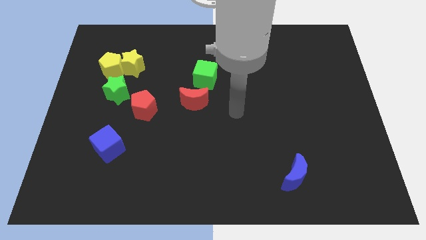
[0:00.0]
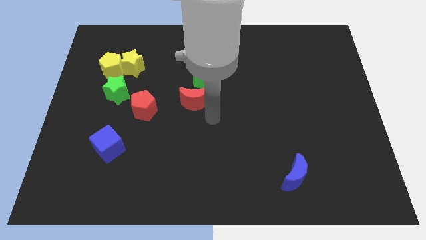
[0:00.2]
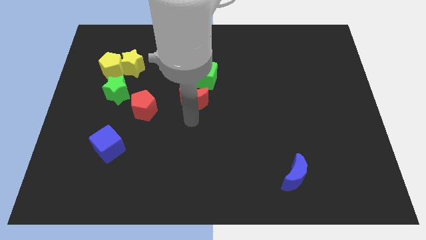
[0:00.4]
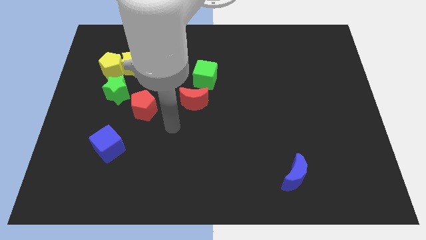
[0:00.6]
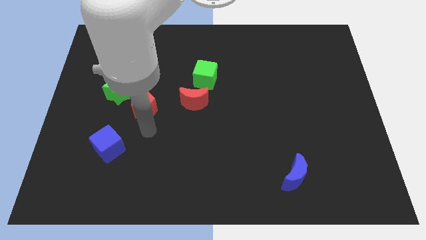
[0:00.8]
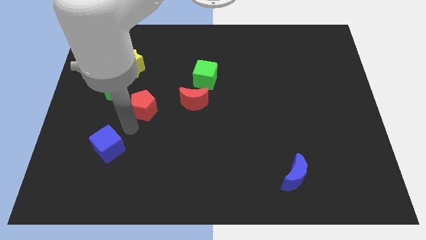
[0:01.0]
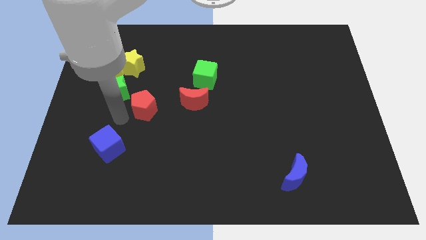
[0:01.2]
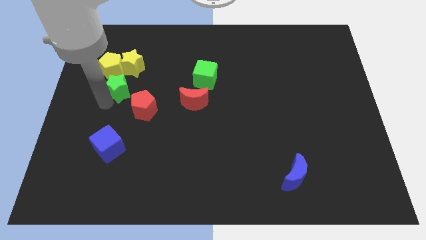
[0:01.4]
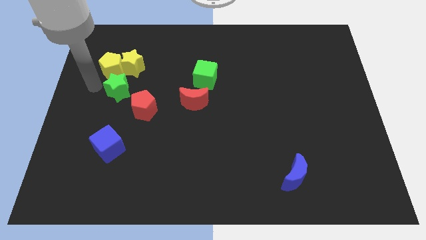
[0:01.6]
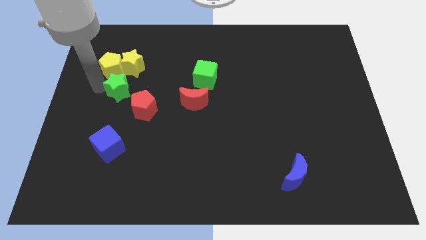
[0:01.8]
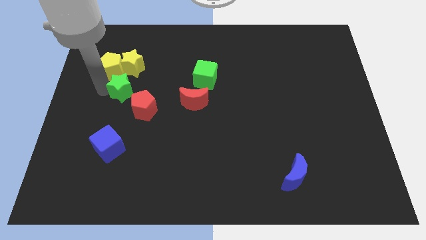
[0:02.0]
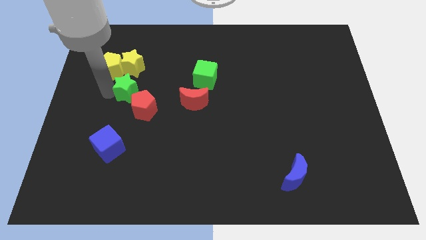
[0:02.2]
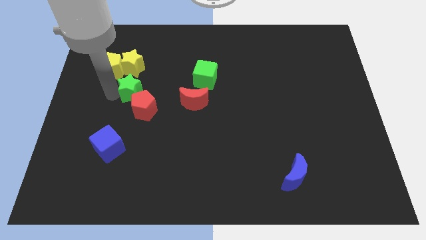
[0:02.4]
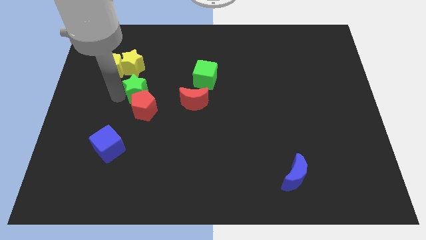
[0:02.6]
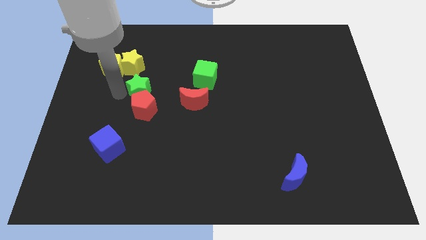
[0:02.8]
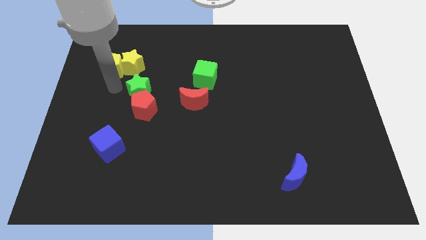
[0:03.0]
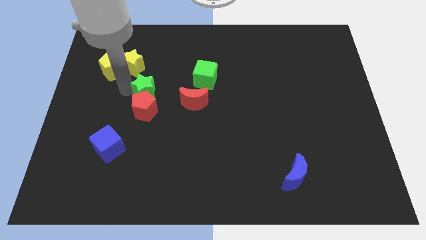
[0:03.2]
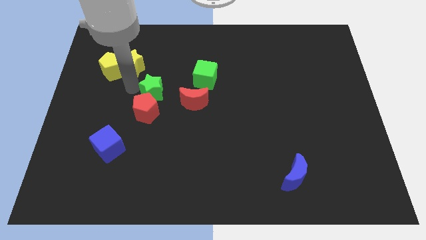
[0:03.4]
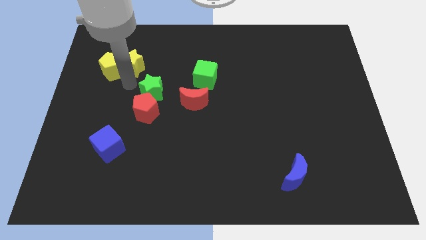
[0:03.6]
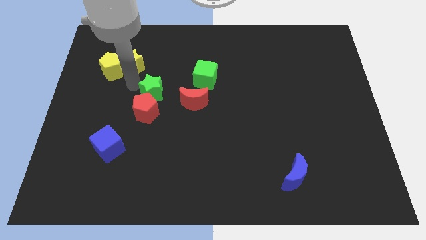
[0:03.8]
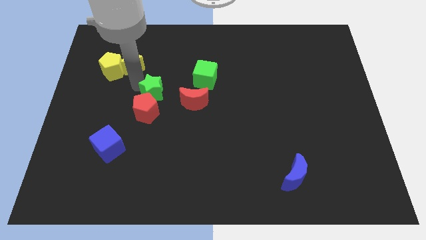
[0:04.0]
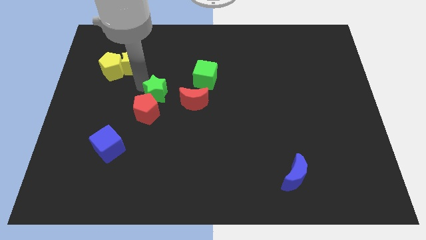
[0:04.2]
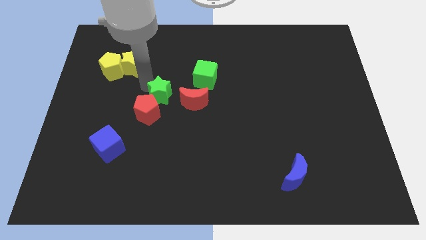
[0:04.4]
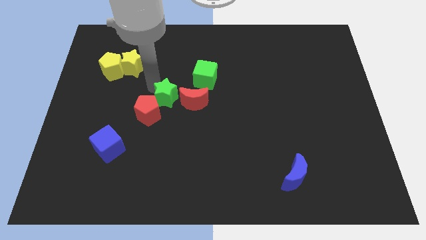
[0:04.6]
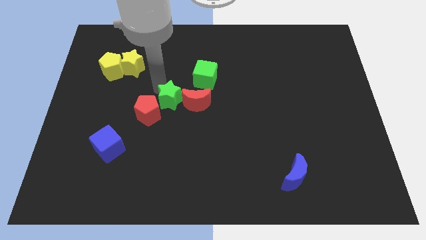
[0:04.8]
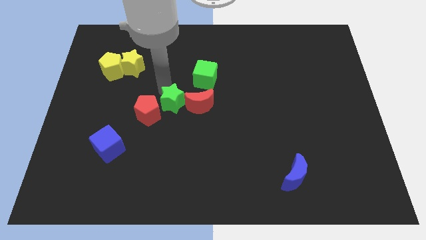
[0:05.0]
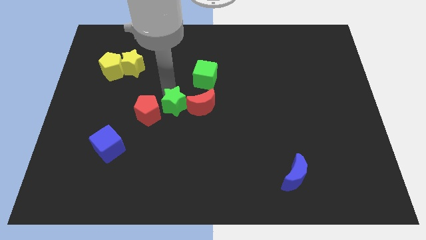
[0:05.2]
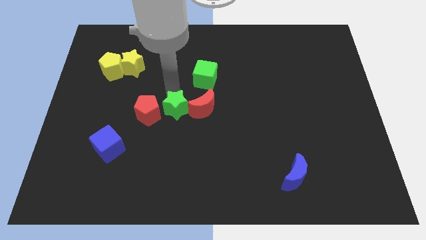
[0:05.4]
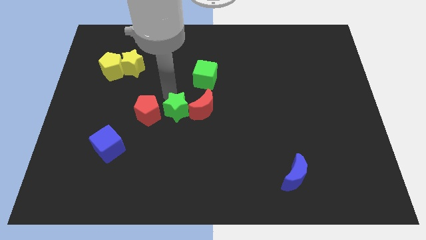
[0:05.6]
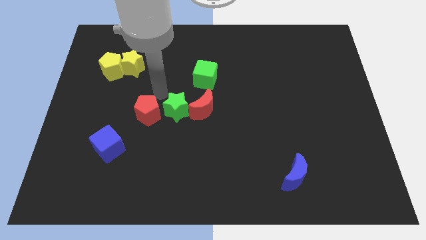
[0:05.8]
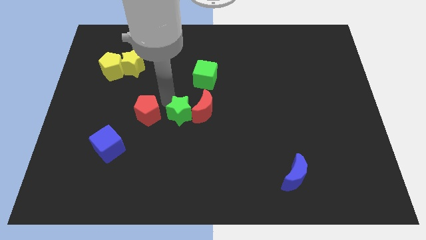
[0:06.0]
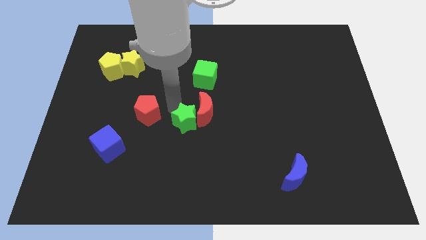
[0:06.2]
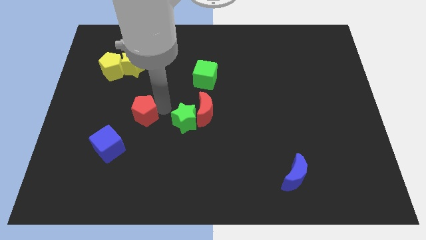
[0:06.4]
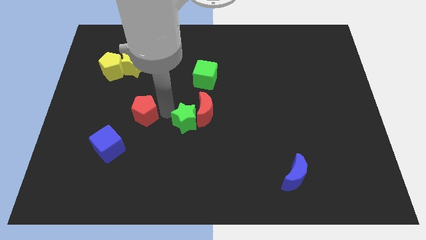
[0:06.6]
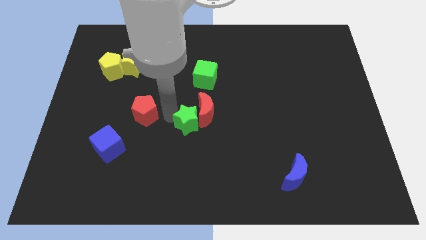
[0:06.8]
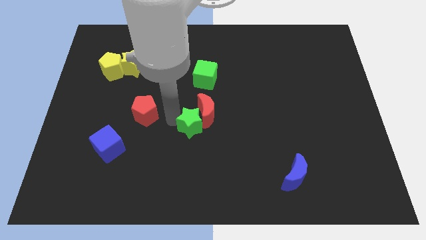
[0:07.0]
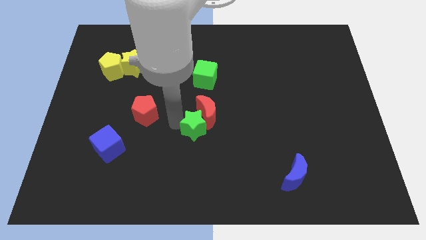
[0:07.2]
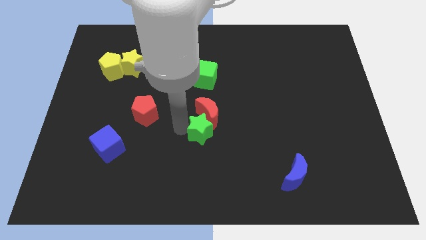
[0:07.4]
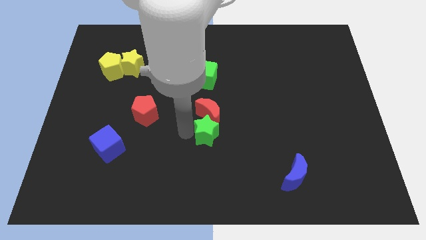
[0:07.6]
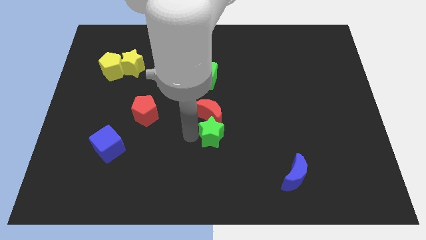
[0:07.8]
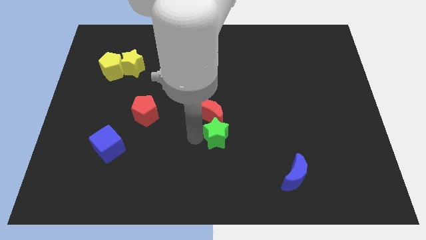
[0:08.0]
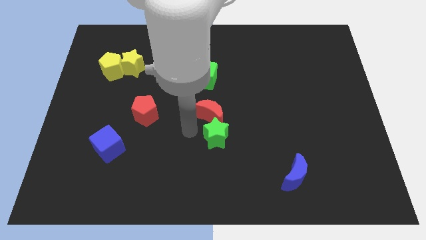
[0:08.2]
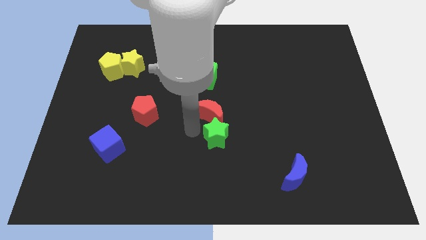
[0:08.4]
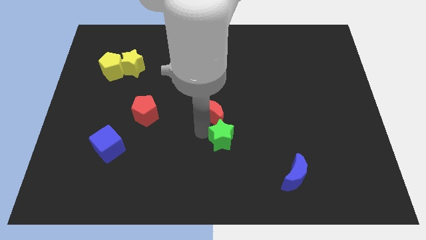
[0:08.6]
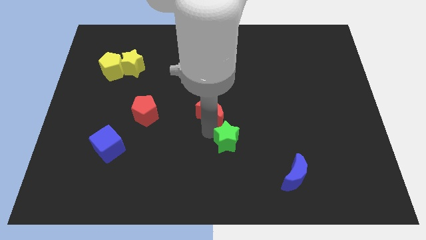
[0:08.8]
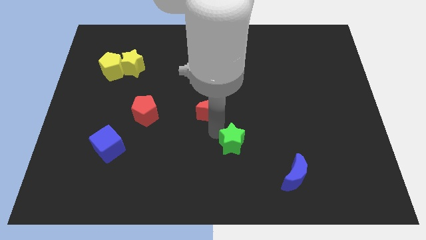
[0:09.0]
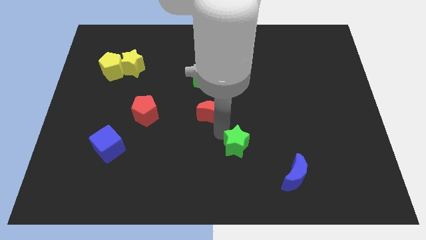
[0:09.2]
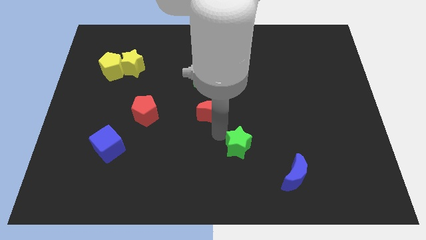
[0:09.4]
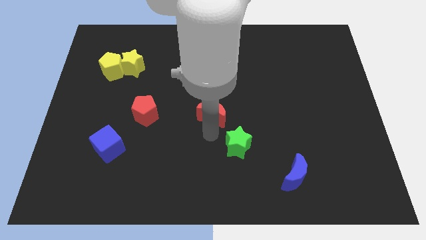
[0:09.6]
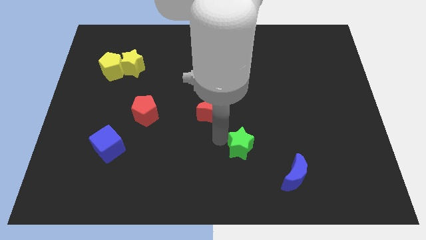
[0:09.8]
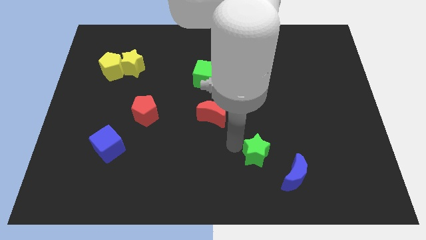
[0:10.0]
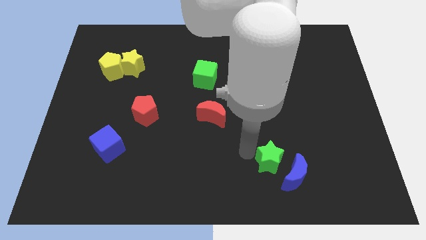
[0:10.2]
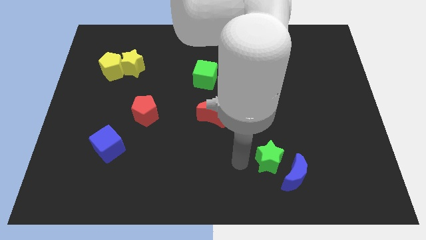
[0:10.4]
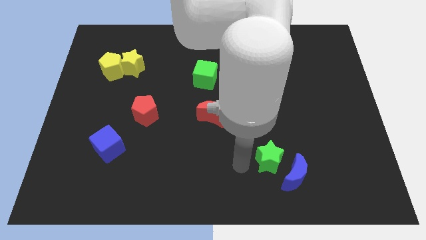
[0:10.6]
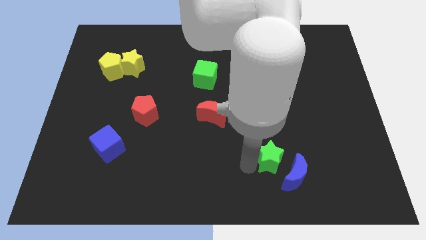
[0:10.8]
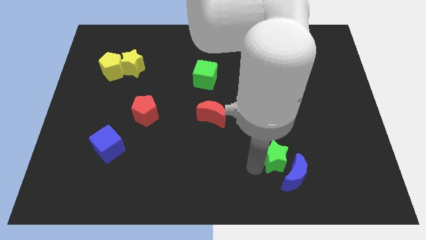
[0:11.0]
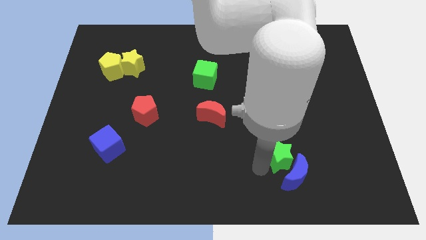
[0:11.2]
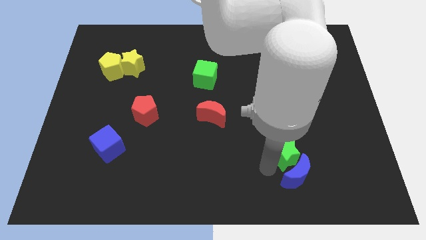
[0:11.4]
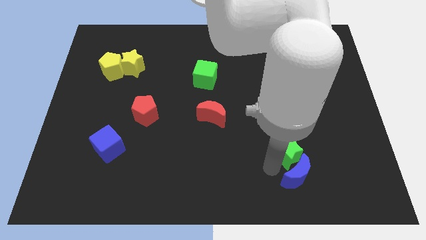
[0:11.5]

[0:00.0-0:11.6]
slide the green star diagonally up and to the right of the blue moon
